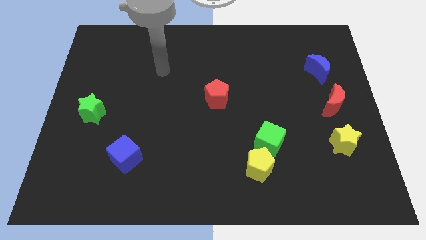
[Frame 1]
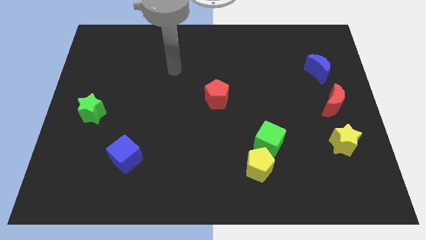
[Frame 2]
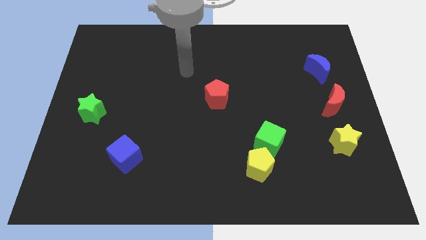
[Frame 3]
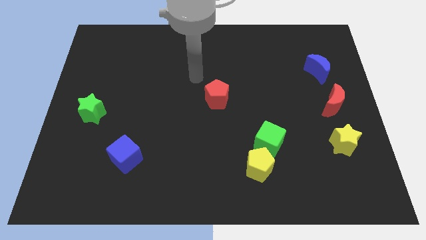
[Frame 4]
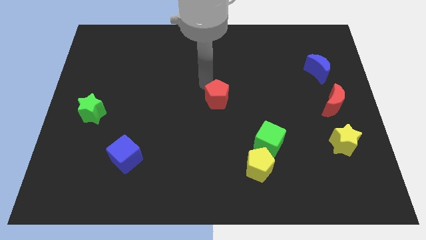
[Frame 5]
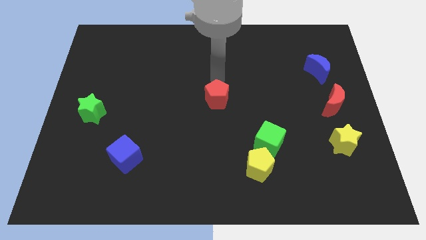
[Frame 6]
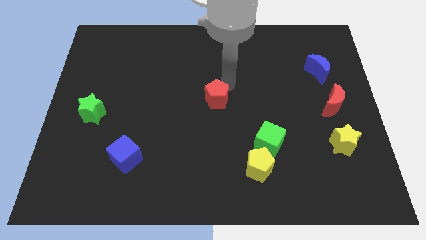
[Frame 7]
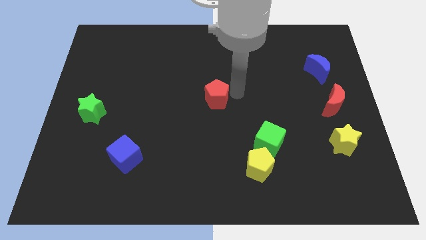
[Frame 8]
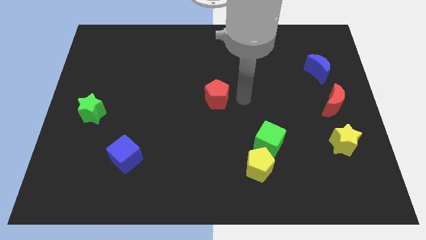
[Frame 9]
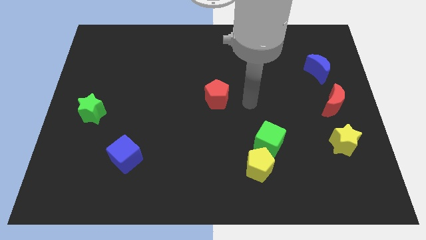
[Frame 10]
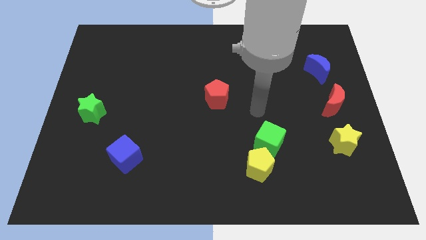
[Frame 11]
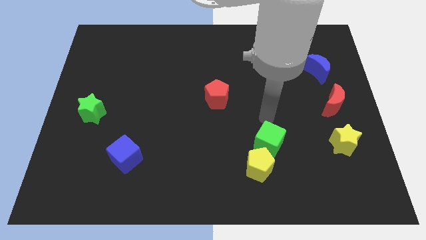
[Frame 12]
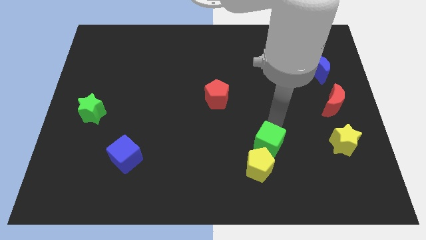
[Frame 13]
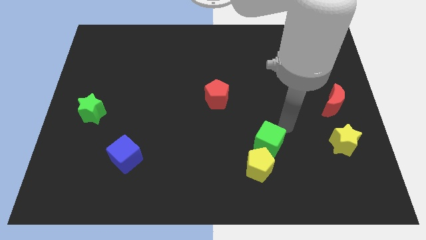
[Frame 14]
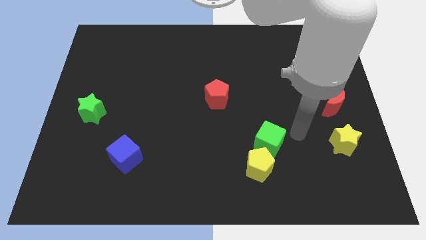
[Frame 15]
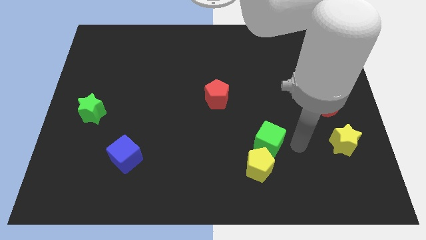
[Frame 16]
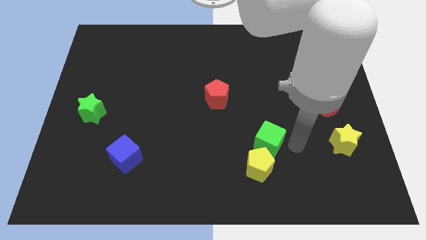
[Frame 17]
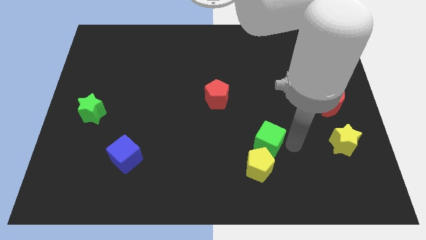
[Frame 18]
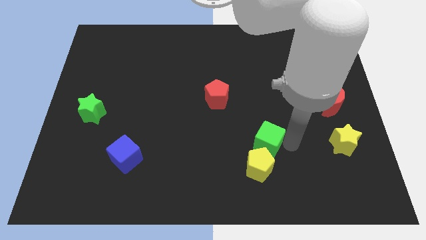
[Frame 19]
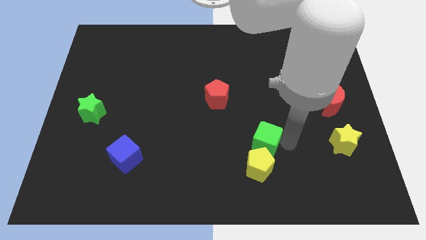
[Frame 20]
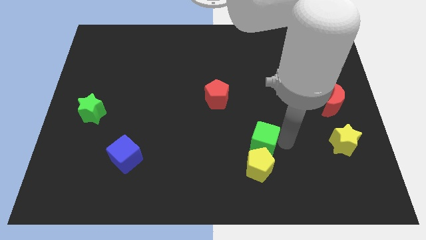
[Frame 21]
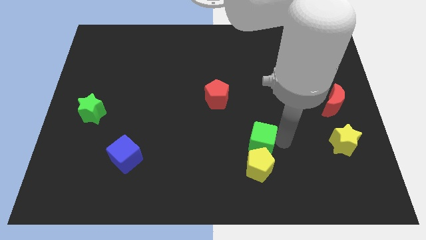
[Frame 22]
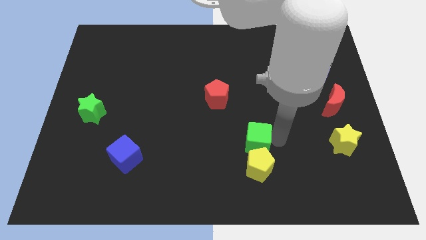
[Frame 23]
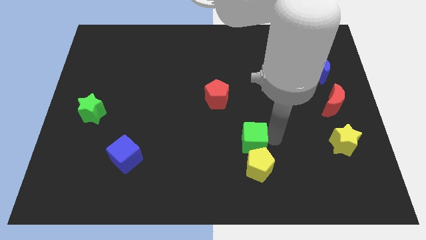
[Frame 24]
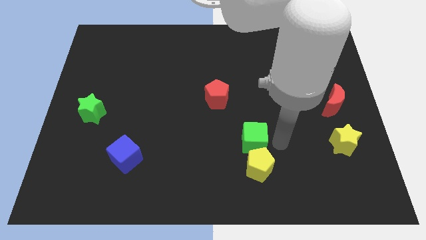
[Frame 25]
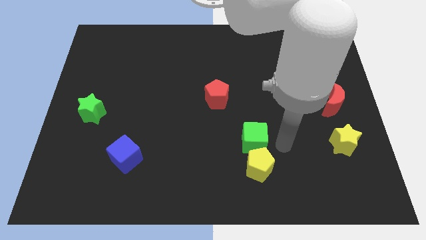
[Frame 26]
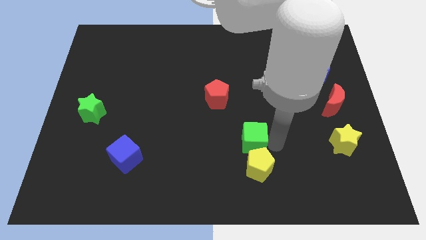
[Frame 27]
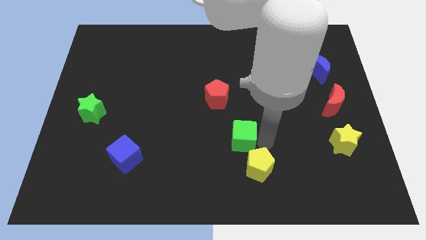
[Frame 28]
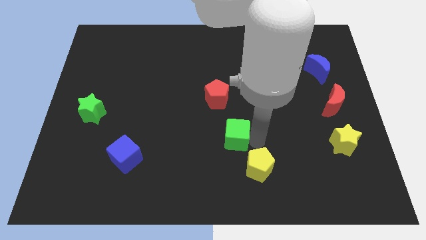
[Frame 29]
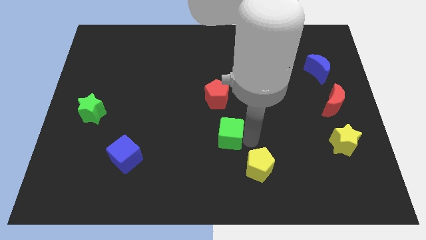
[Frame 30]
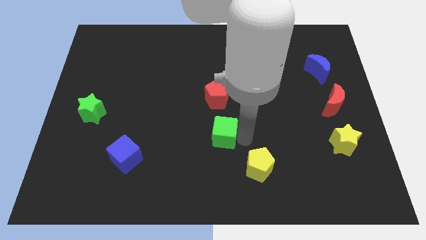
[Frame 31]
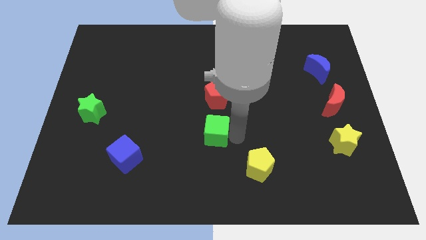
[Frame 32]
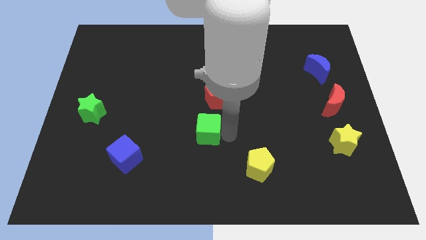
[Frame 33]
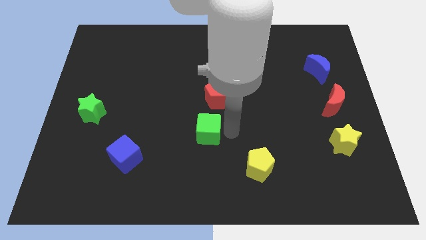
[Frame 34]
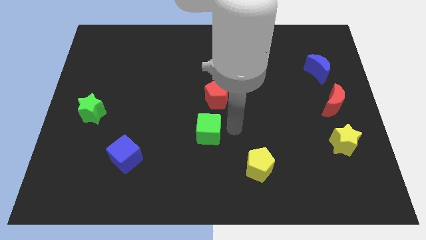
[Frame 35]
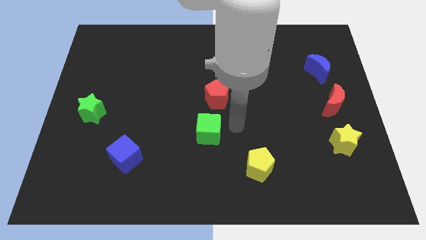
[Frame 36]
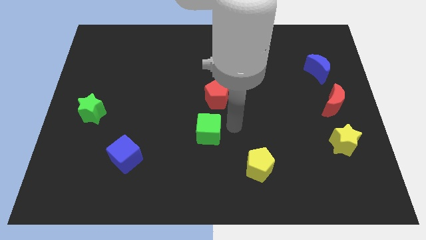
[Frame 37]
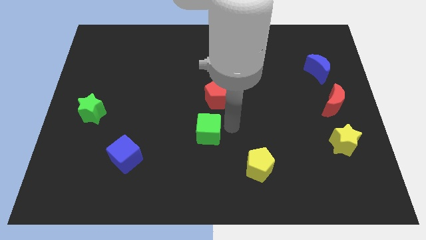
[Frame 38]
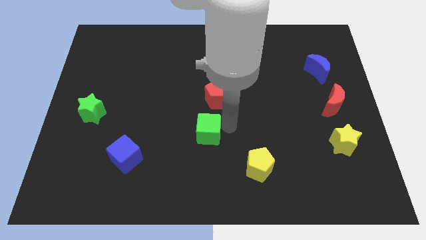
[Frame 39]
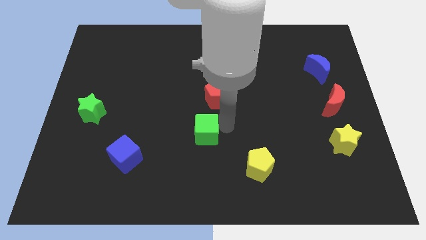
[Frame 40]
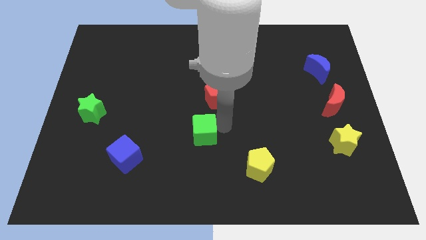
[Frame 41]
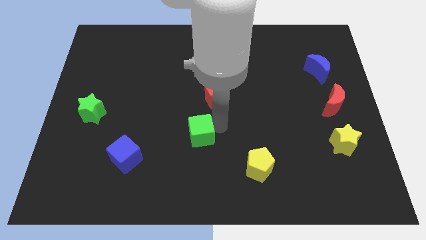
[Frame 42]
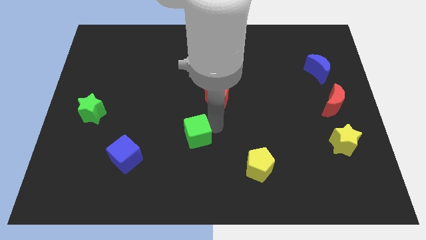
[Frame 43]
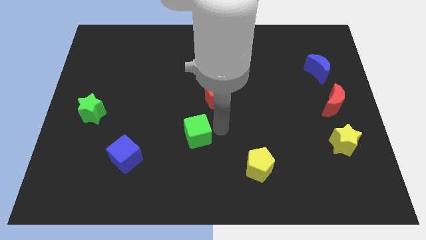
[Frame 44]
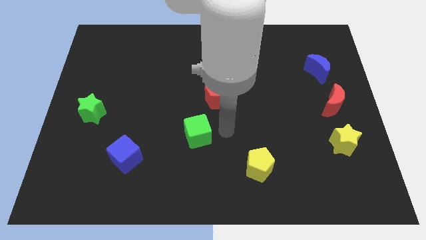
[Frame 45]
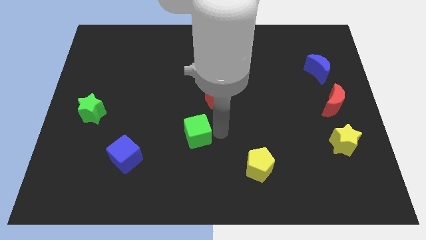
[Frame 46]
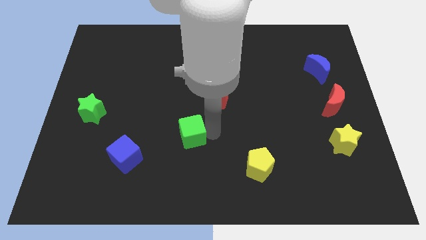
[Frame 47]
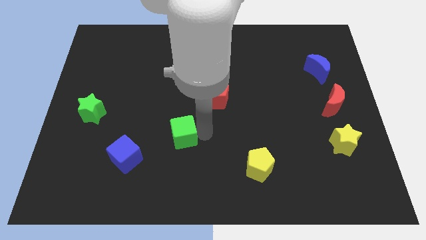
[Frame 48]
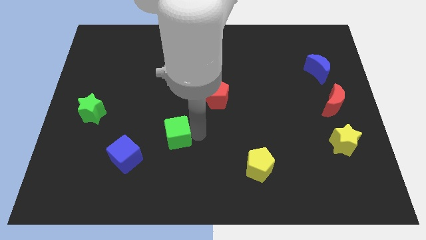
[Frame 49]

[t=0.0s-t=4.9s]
push the green cube left

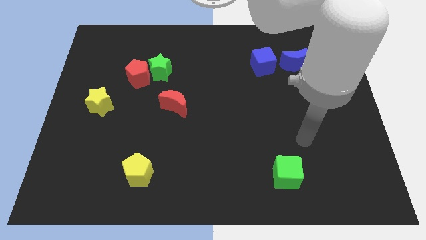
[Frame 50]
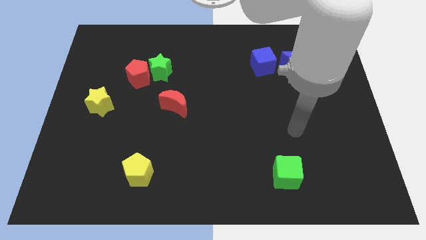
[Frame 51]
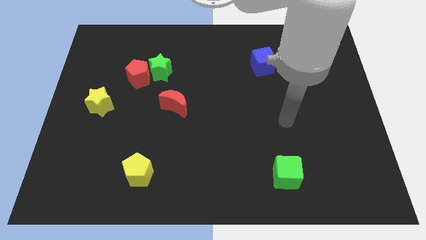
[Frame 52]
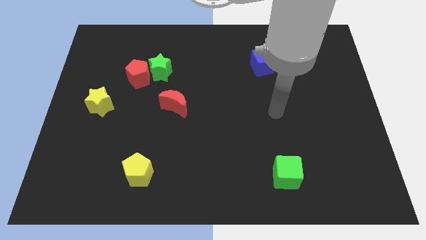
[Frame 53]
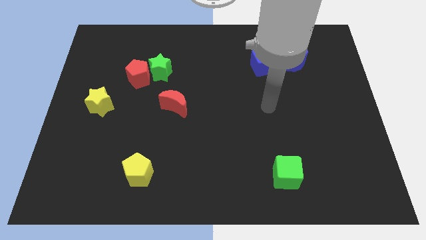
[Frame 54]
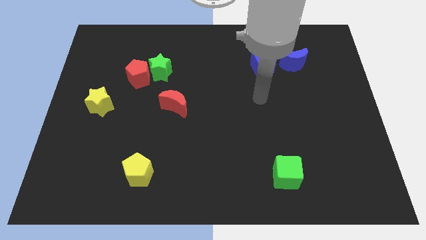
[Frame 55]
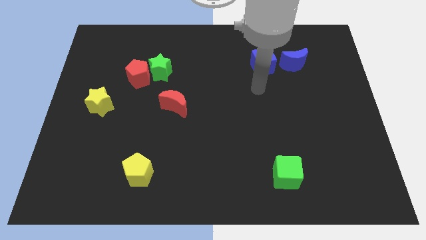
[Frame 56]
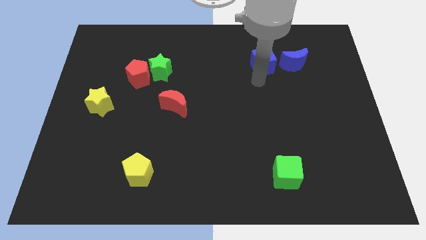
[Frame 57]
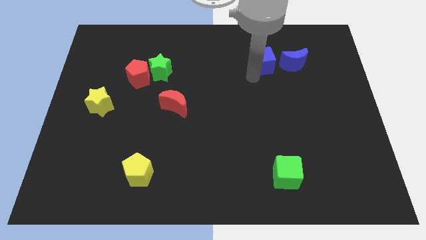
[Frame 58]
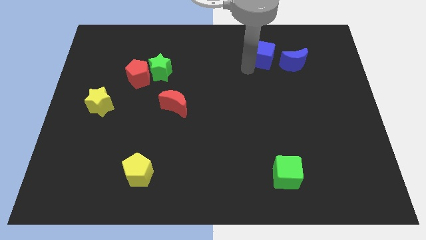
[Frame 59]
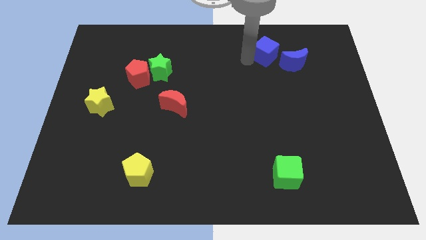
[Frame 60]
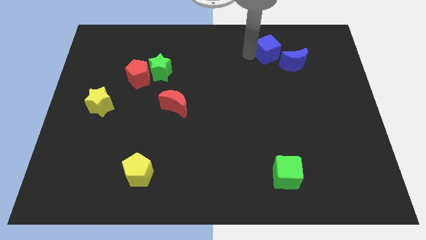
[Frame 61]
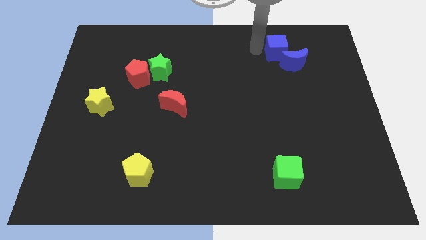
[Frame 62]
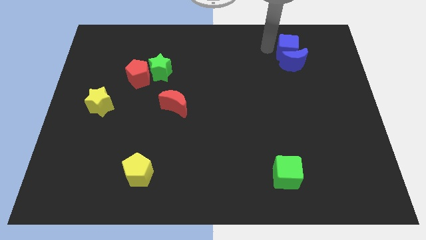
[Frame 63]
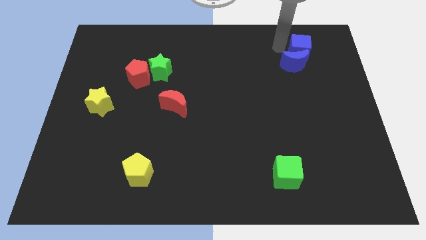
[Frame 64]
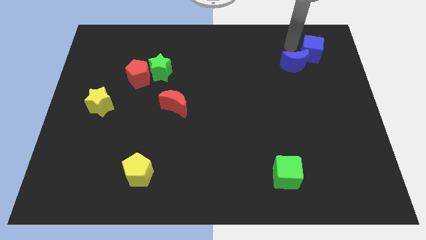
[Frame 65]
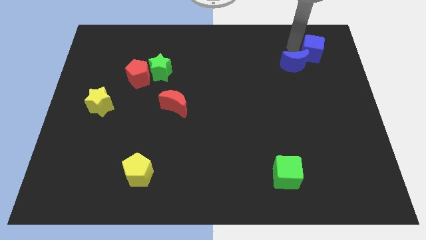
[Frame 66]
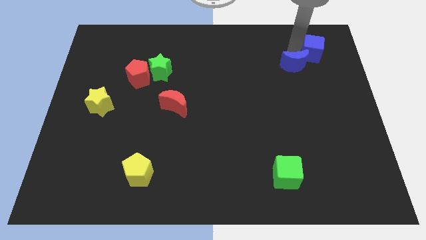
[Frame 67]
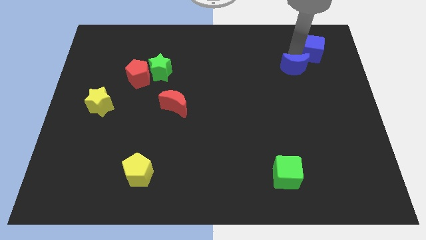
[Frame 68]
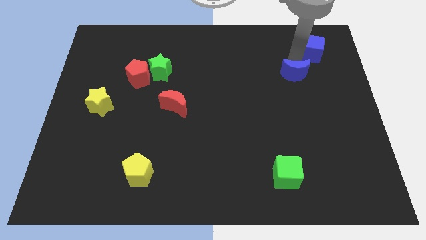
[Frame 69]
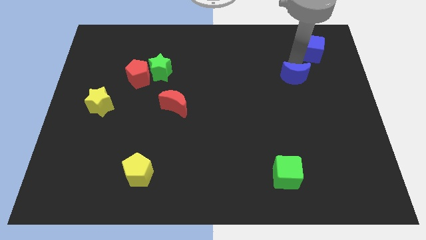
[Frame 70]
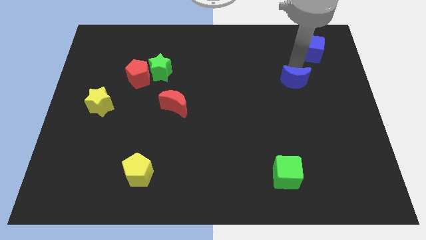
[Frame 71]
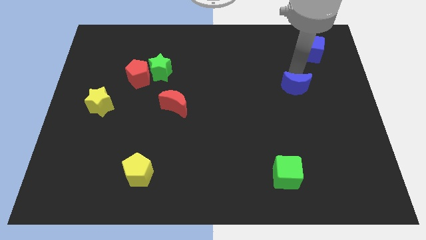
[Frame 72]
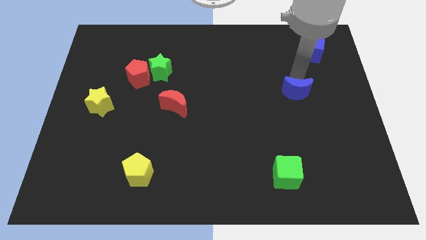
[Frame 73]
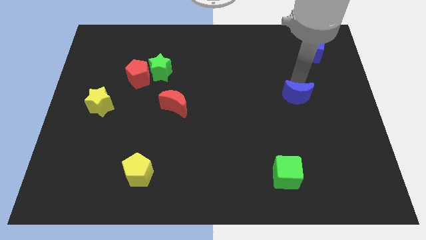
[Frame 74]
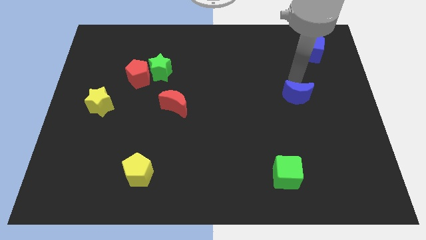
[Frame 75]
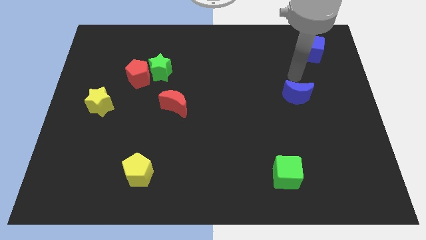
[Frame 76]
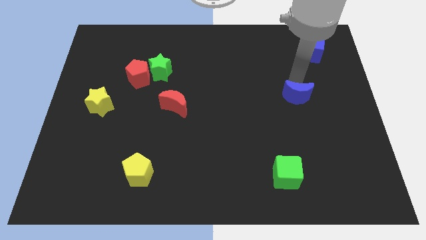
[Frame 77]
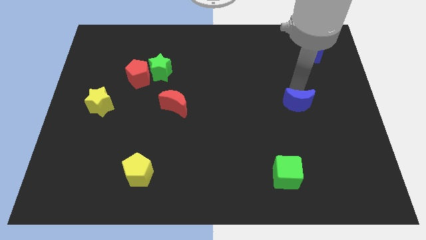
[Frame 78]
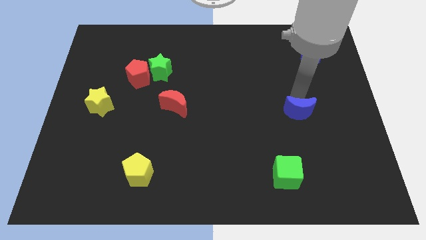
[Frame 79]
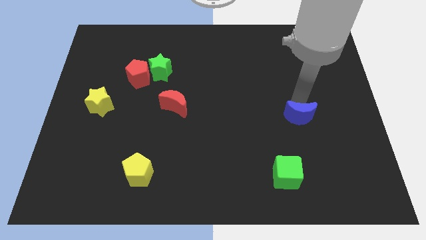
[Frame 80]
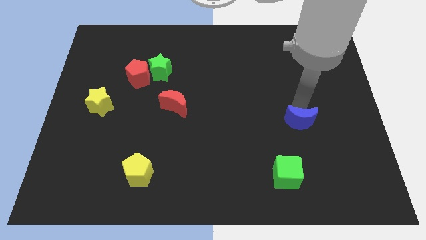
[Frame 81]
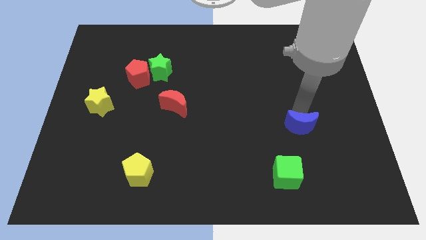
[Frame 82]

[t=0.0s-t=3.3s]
push the blue moon downwards
